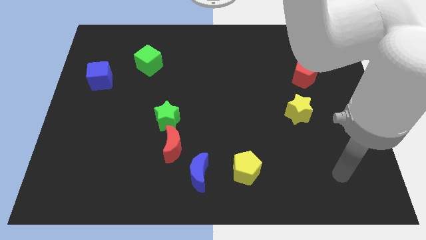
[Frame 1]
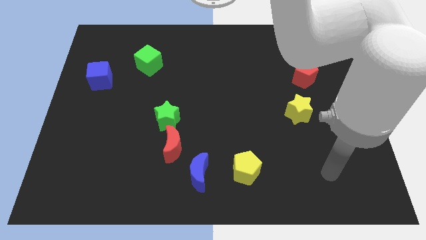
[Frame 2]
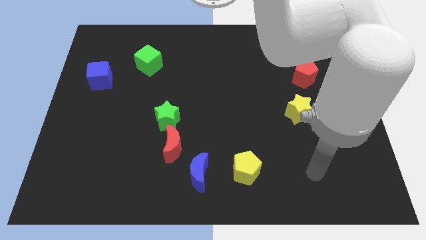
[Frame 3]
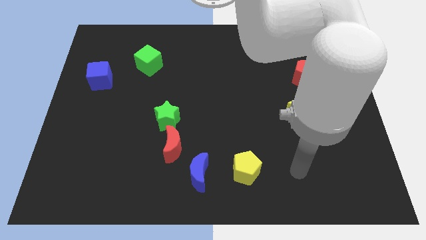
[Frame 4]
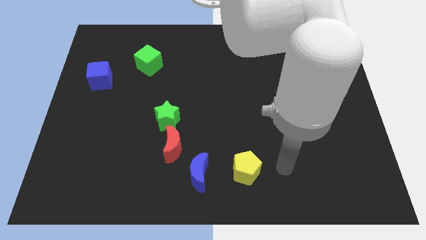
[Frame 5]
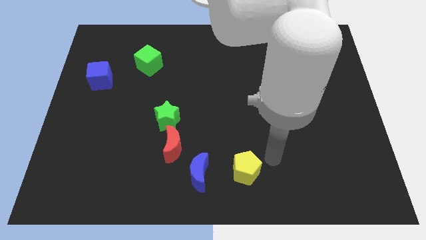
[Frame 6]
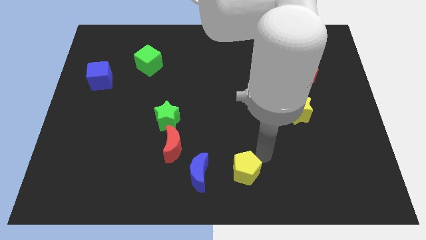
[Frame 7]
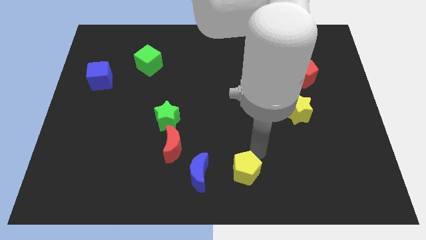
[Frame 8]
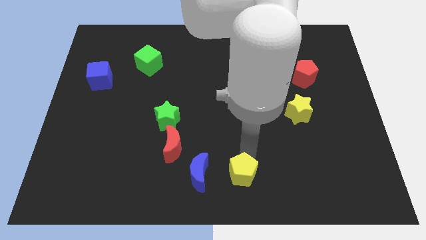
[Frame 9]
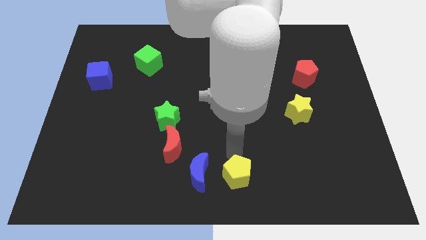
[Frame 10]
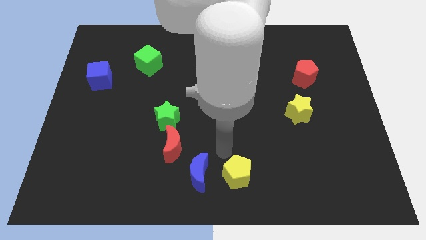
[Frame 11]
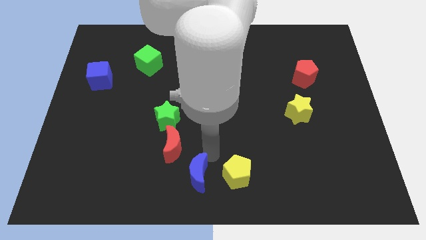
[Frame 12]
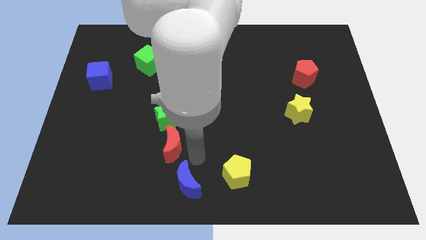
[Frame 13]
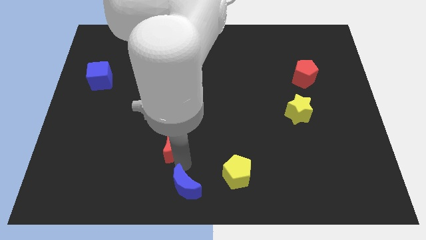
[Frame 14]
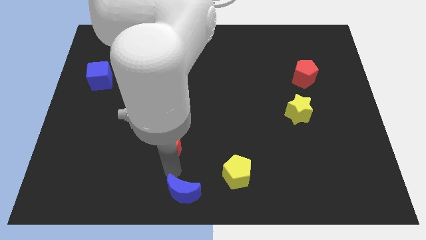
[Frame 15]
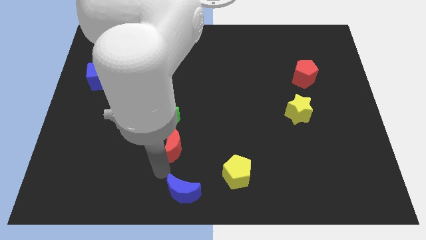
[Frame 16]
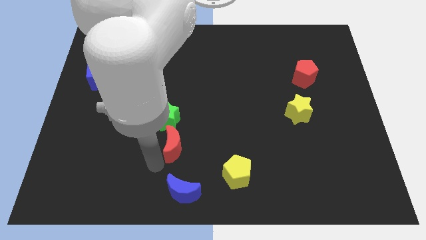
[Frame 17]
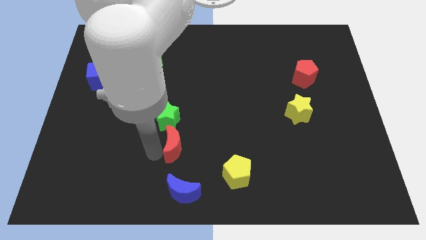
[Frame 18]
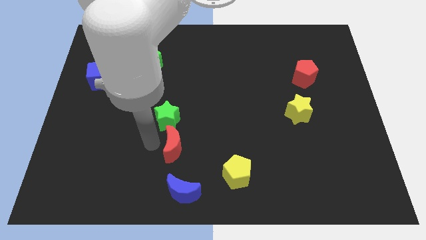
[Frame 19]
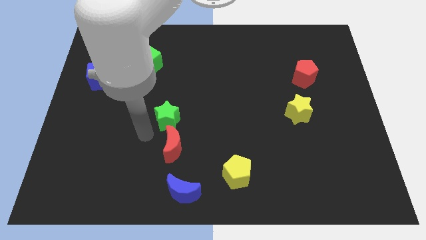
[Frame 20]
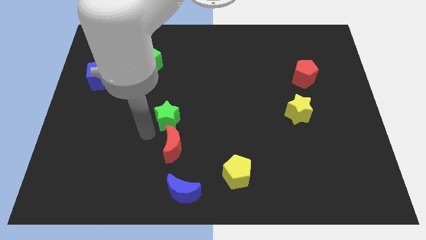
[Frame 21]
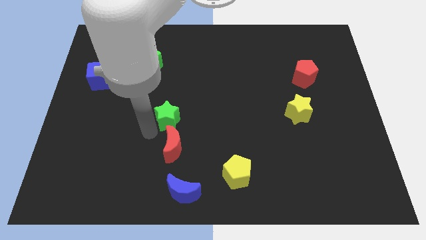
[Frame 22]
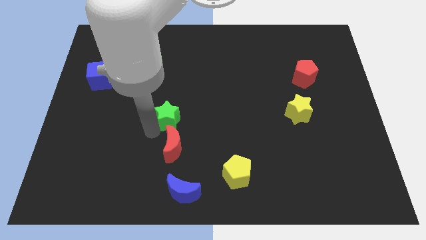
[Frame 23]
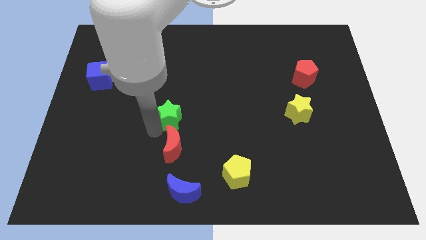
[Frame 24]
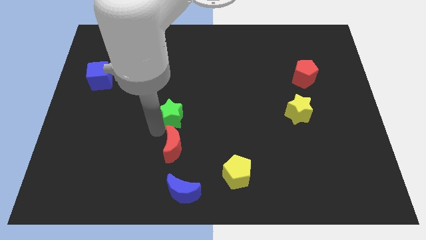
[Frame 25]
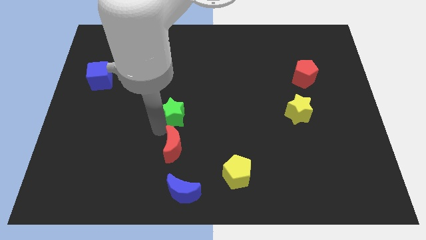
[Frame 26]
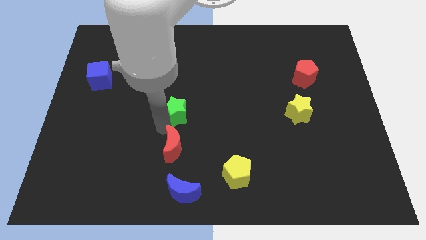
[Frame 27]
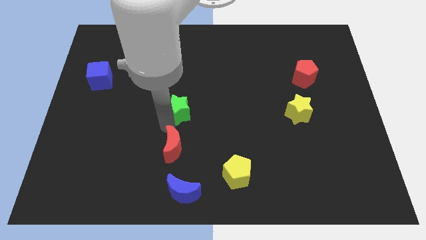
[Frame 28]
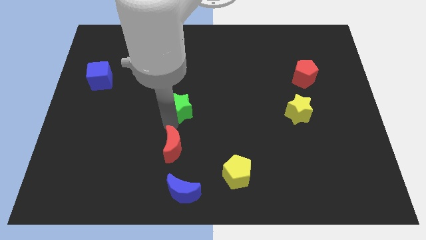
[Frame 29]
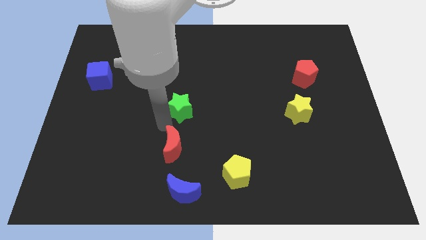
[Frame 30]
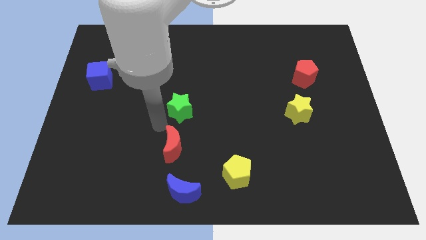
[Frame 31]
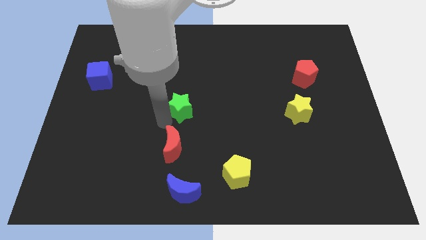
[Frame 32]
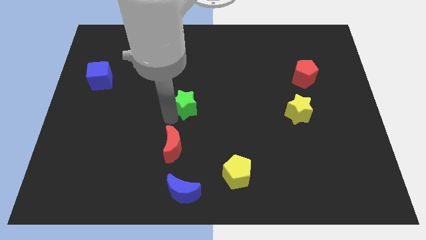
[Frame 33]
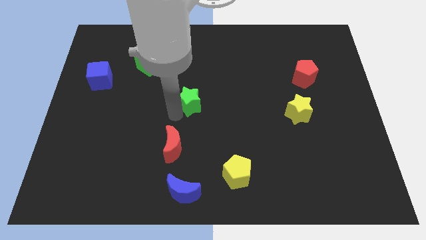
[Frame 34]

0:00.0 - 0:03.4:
slightly push the green star up and then to the right

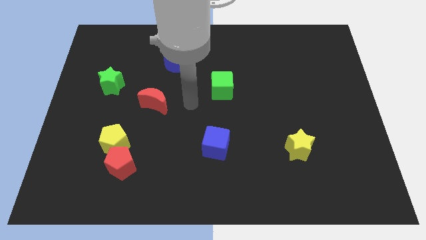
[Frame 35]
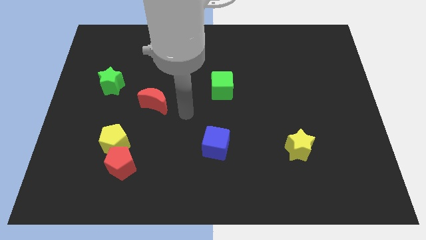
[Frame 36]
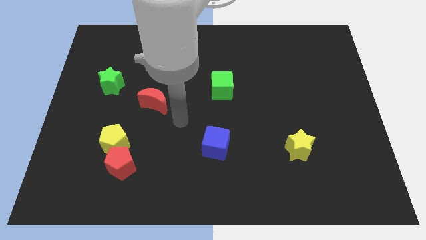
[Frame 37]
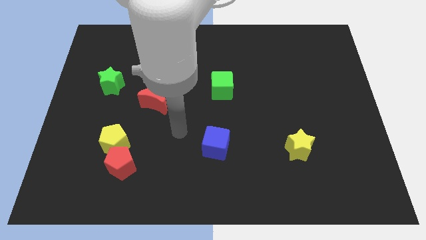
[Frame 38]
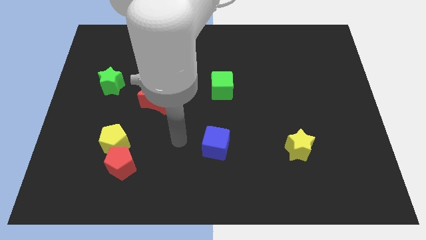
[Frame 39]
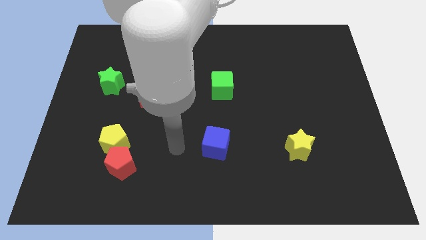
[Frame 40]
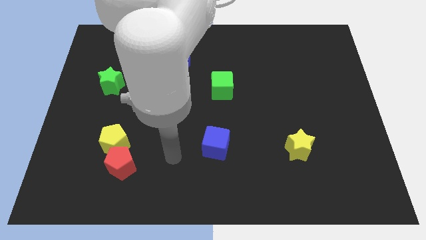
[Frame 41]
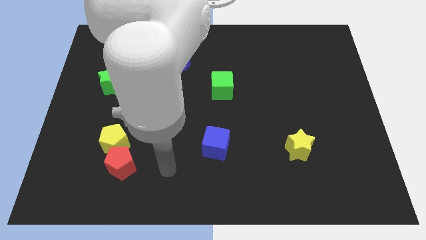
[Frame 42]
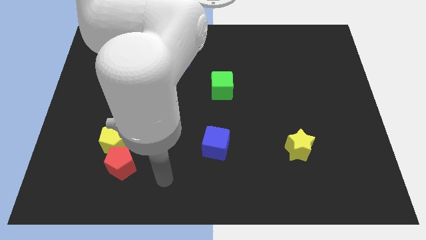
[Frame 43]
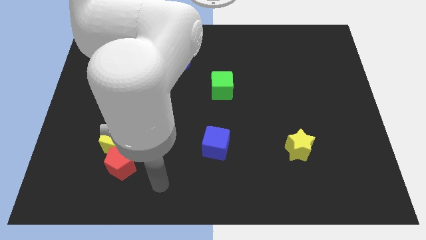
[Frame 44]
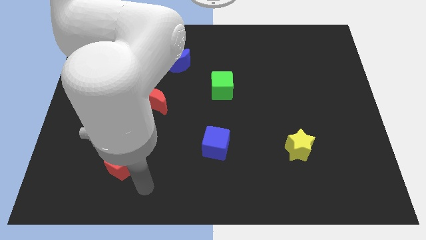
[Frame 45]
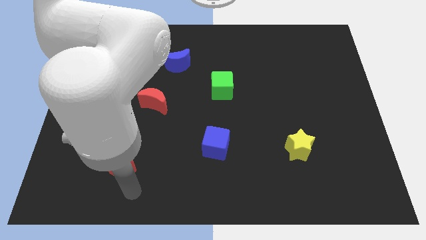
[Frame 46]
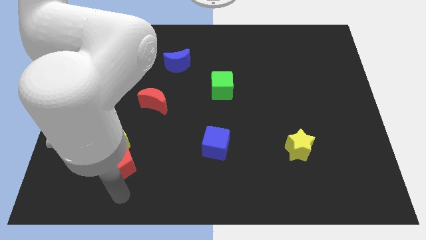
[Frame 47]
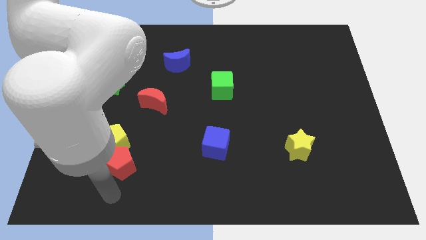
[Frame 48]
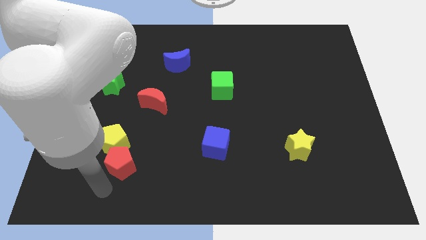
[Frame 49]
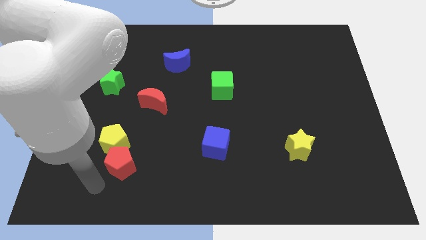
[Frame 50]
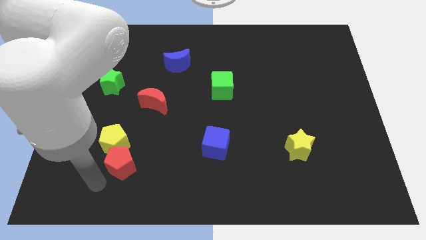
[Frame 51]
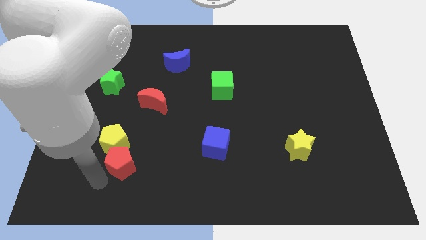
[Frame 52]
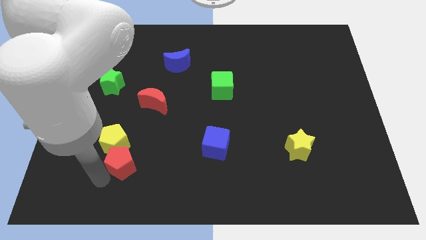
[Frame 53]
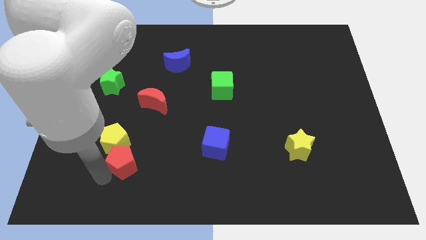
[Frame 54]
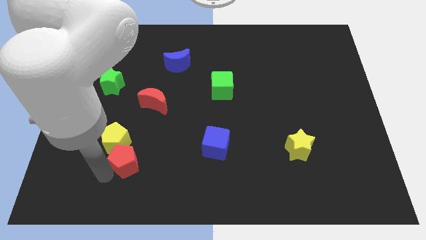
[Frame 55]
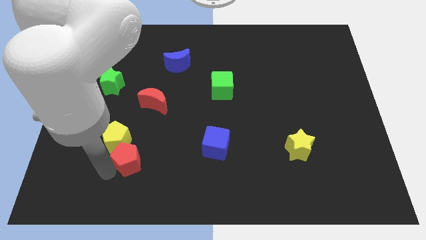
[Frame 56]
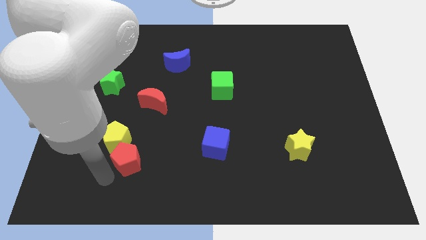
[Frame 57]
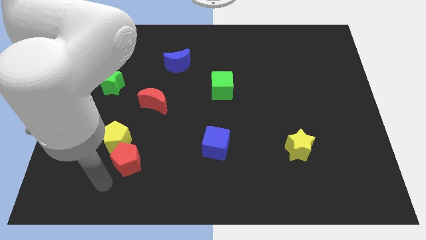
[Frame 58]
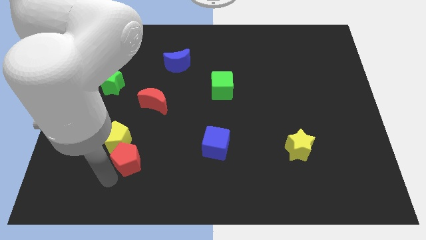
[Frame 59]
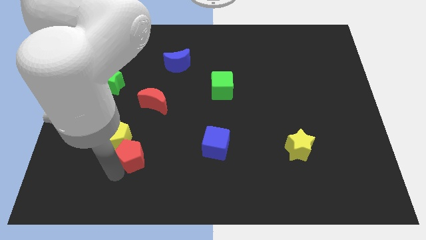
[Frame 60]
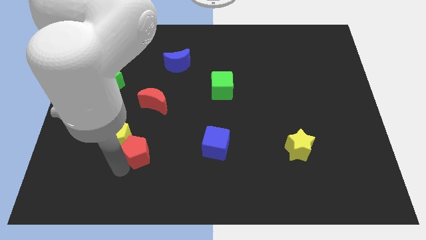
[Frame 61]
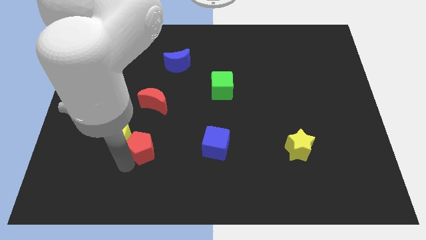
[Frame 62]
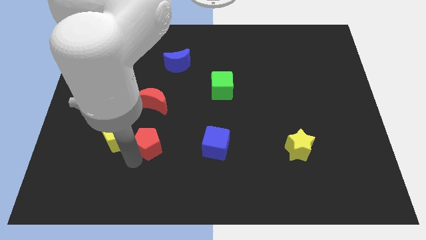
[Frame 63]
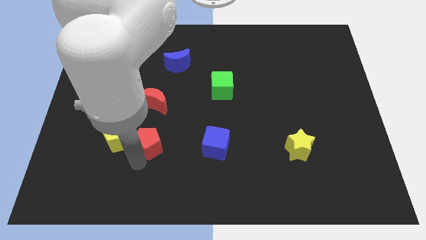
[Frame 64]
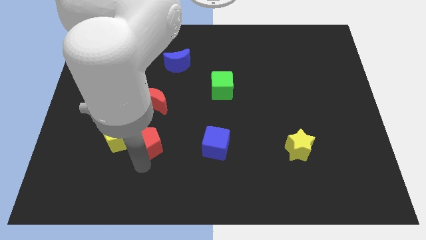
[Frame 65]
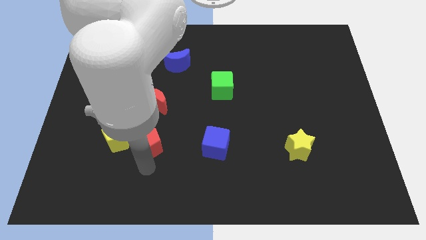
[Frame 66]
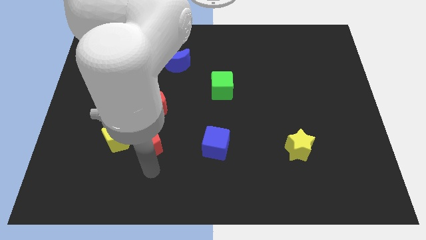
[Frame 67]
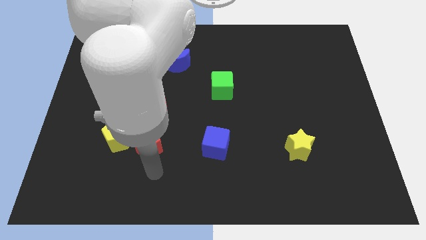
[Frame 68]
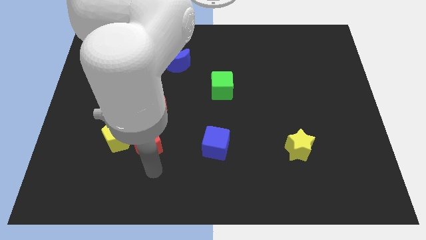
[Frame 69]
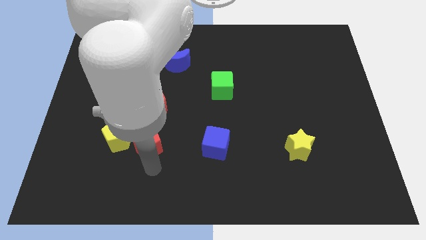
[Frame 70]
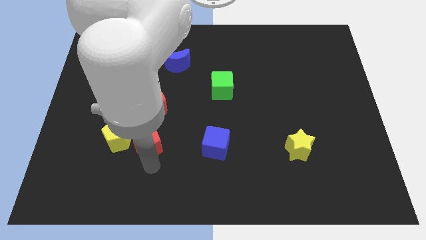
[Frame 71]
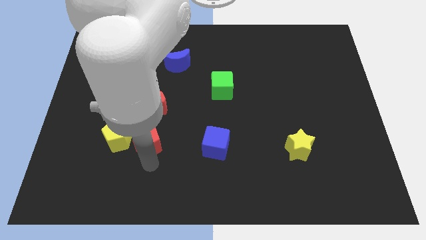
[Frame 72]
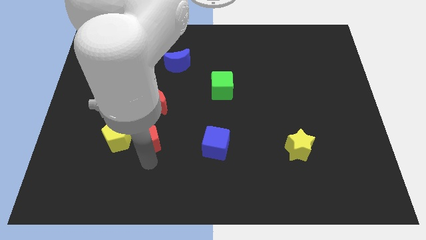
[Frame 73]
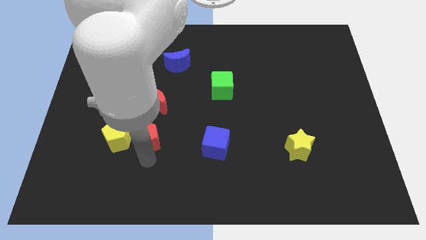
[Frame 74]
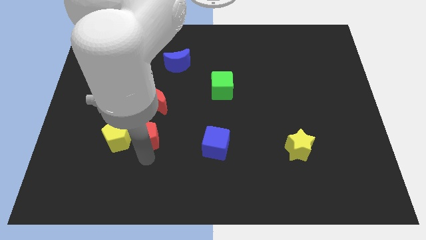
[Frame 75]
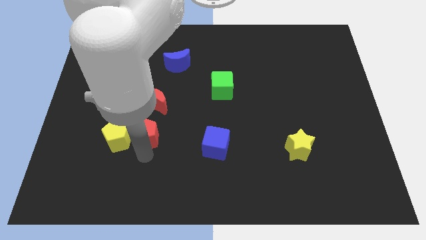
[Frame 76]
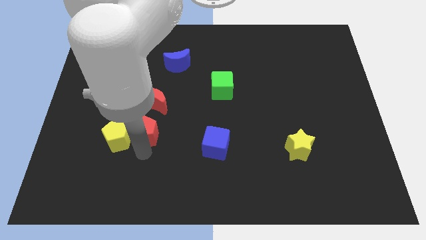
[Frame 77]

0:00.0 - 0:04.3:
push the red pentagon a bit up

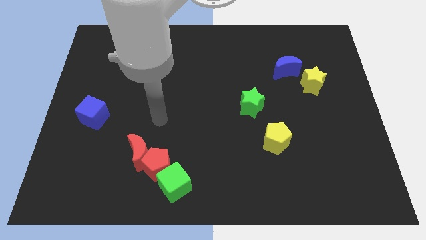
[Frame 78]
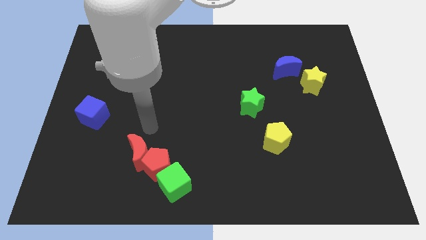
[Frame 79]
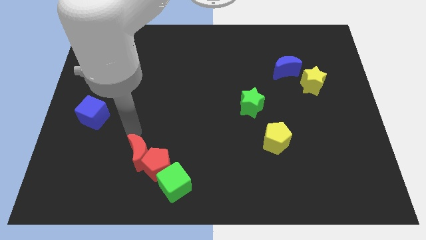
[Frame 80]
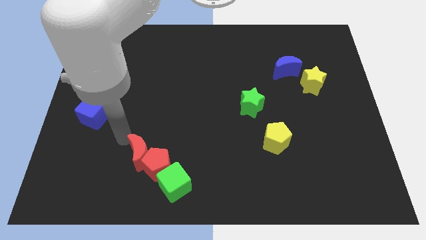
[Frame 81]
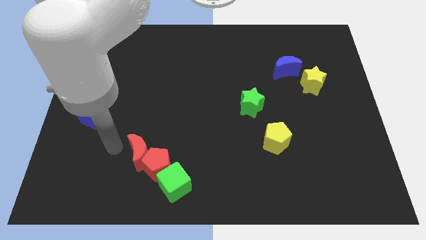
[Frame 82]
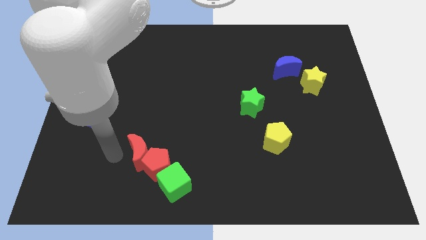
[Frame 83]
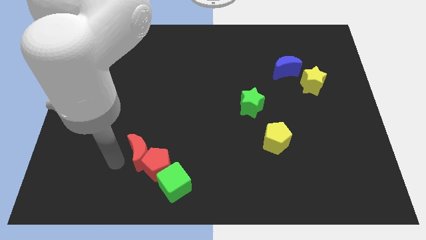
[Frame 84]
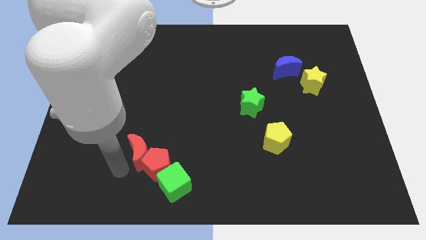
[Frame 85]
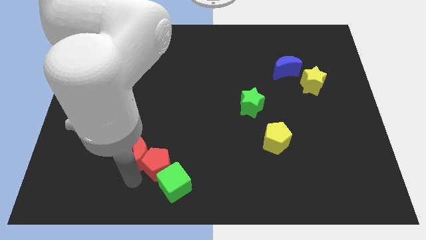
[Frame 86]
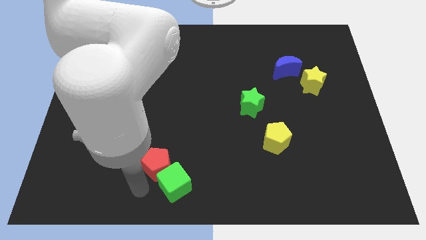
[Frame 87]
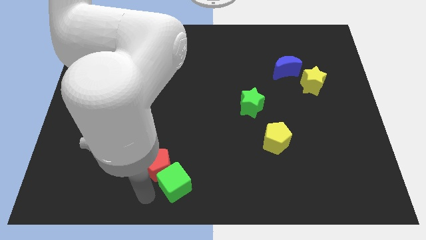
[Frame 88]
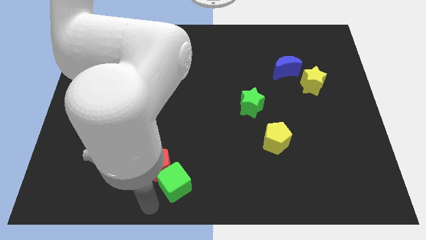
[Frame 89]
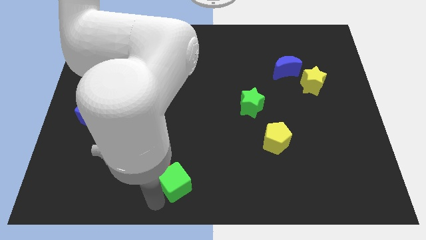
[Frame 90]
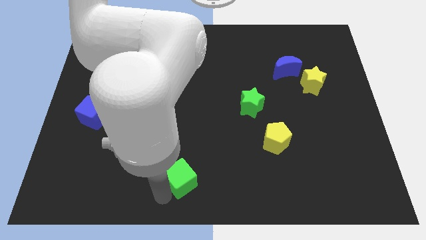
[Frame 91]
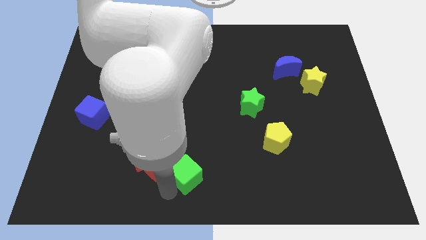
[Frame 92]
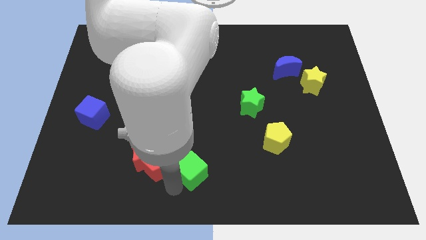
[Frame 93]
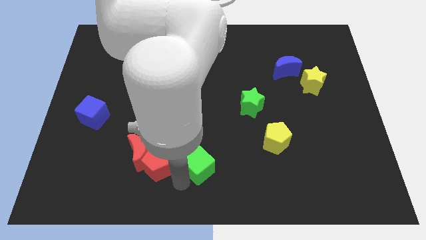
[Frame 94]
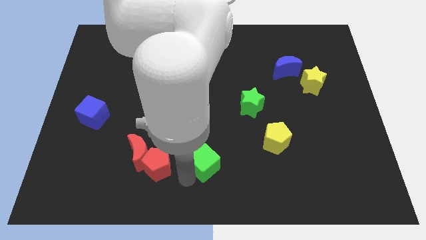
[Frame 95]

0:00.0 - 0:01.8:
slightly push the green cube up and then to the right
